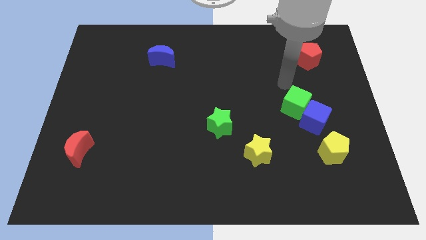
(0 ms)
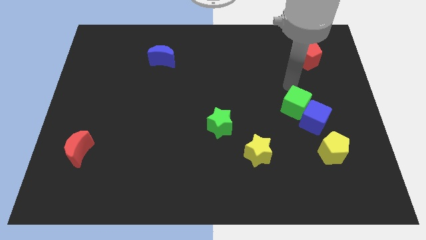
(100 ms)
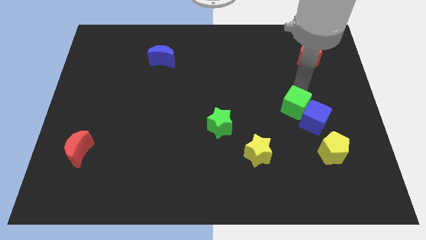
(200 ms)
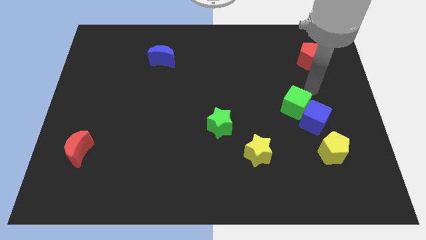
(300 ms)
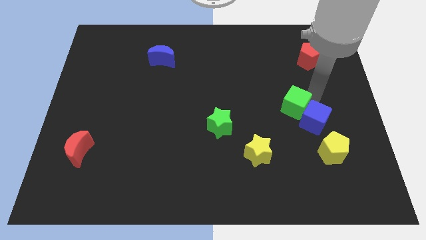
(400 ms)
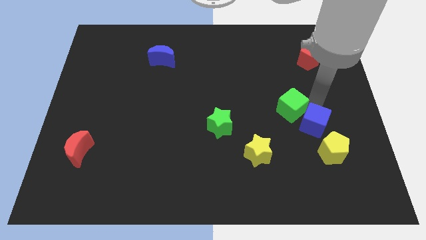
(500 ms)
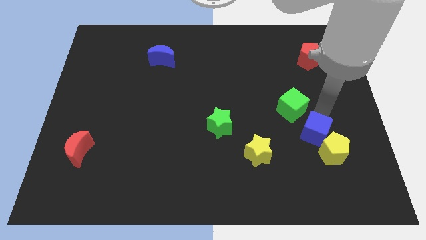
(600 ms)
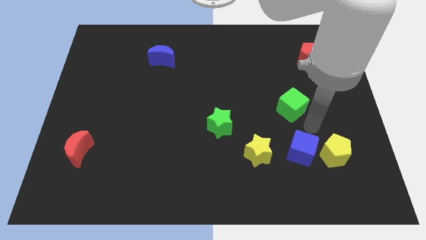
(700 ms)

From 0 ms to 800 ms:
move the green cube away from the blue cube

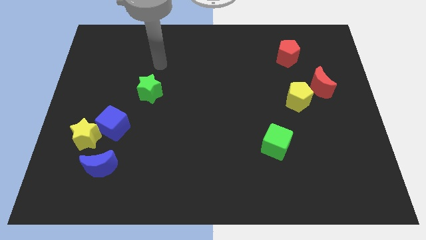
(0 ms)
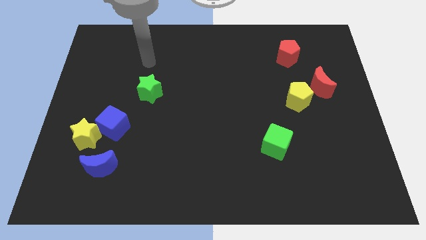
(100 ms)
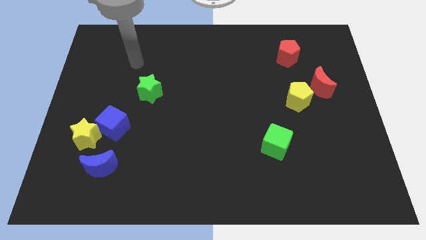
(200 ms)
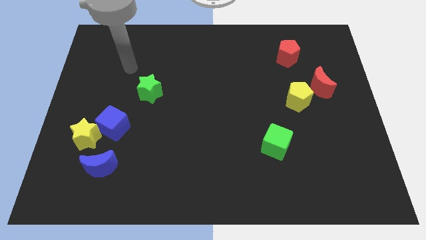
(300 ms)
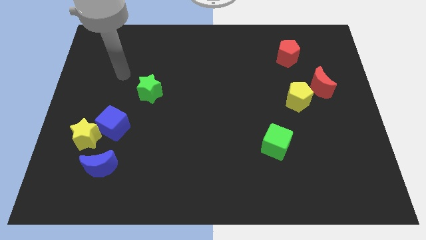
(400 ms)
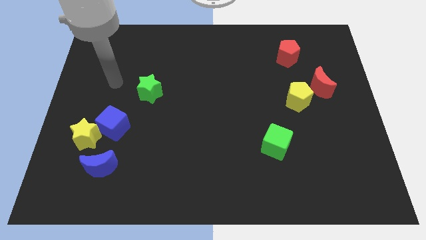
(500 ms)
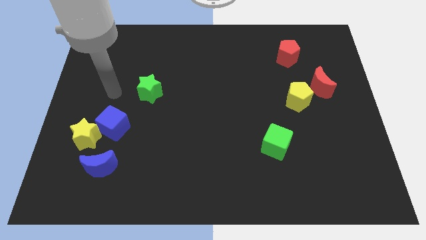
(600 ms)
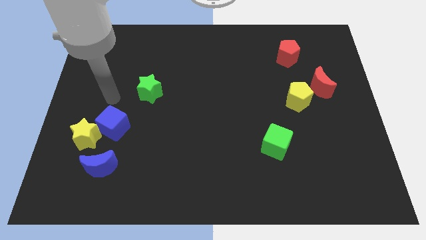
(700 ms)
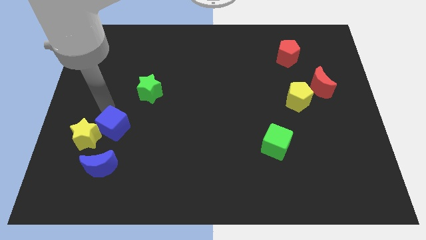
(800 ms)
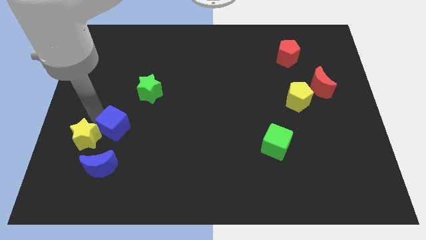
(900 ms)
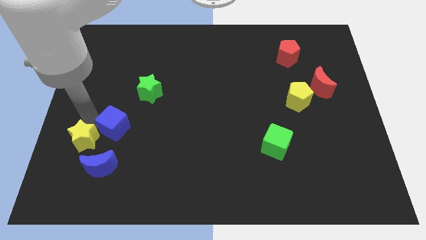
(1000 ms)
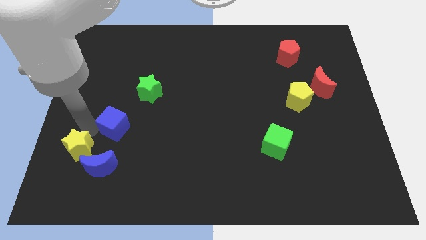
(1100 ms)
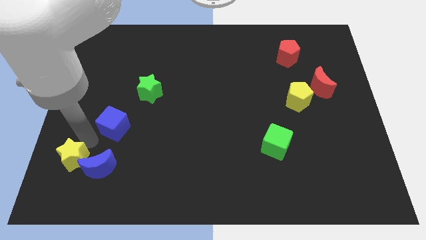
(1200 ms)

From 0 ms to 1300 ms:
pull the blue cube apart from the yellow star

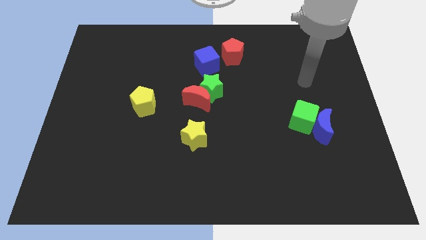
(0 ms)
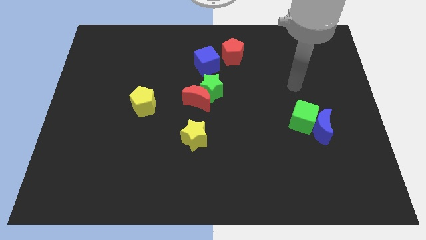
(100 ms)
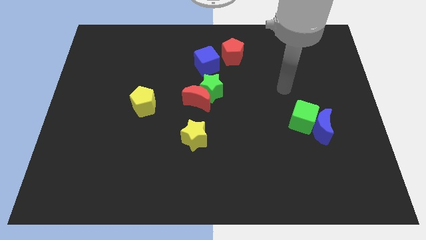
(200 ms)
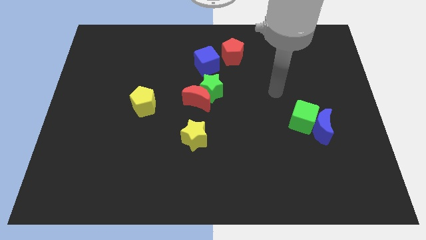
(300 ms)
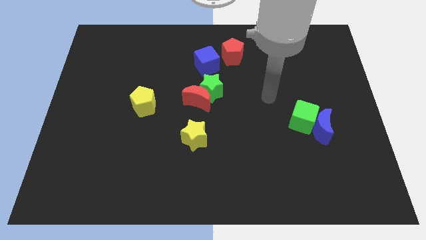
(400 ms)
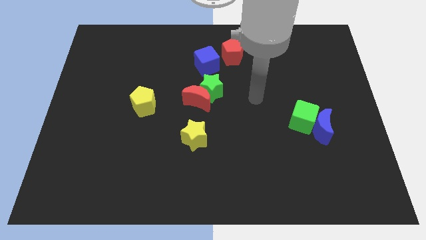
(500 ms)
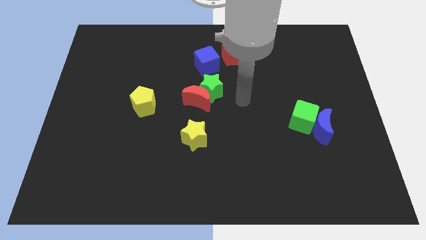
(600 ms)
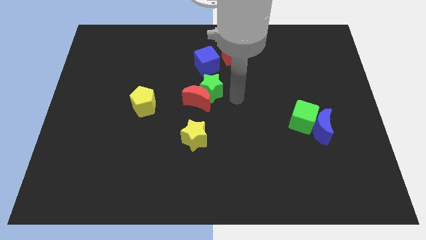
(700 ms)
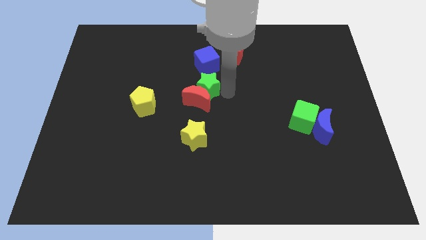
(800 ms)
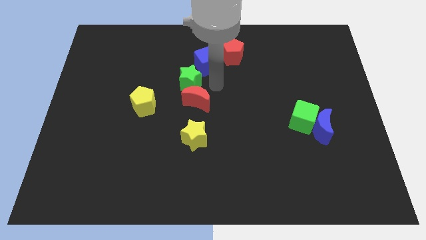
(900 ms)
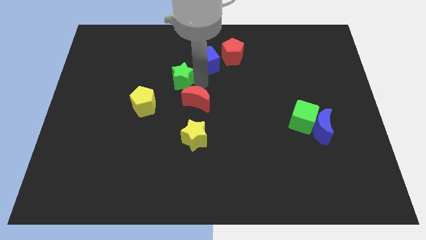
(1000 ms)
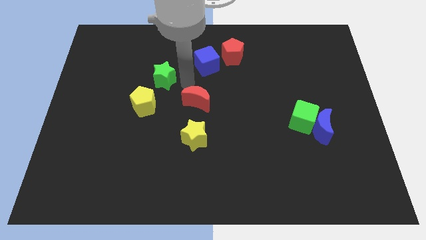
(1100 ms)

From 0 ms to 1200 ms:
pull the red moon apart from the green star

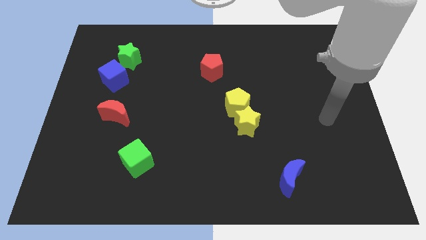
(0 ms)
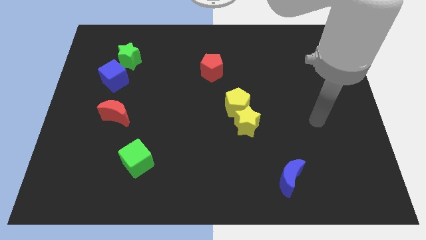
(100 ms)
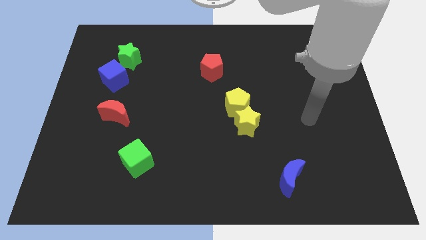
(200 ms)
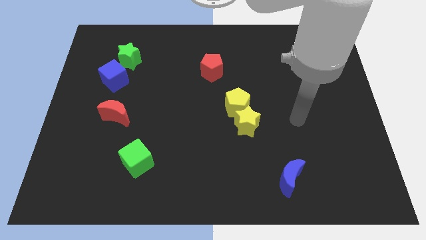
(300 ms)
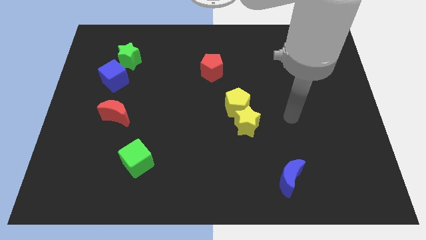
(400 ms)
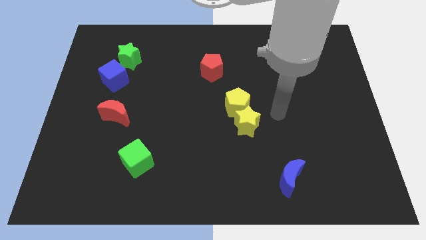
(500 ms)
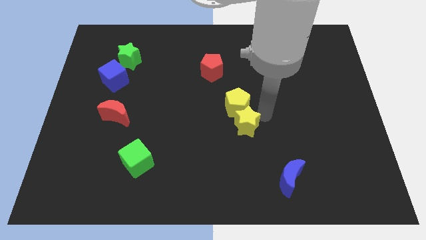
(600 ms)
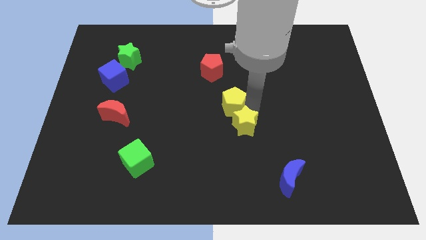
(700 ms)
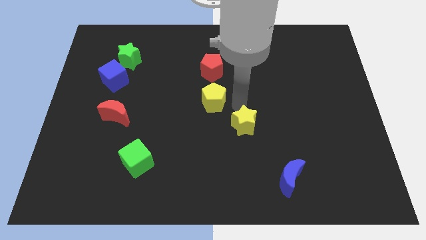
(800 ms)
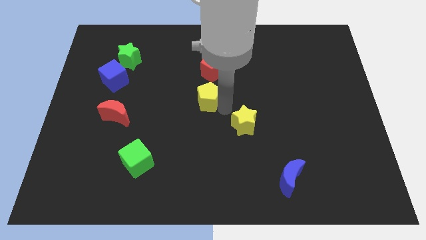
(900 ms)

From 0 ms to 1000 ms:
separate the yellow star from the yellow pentagon

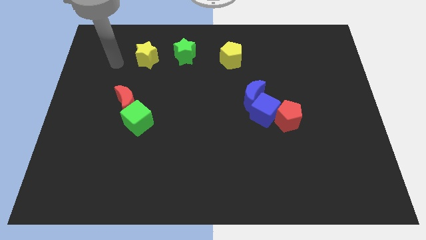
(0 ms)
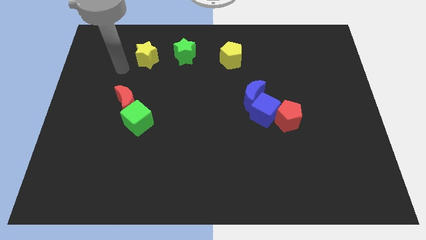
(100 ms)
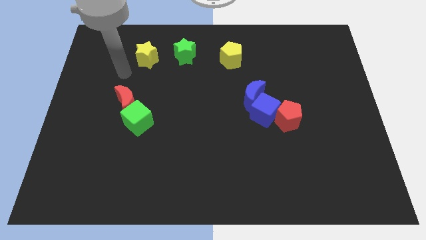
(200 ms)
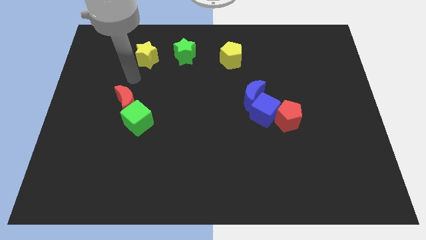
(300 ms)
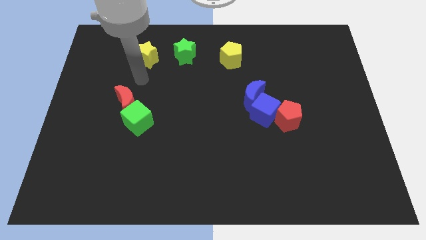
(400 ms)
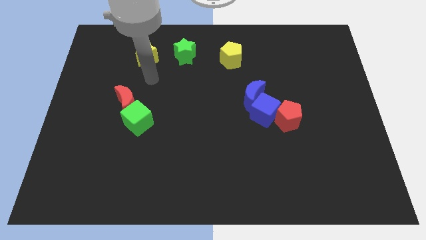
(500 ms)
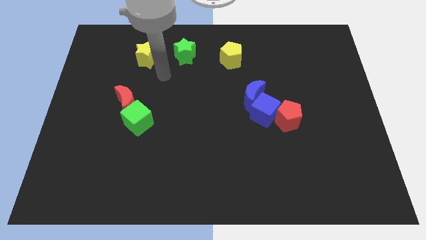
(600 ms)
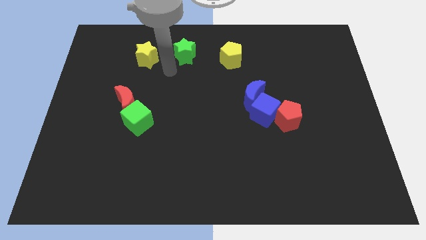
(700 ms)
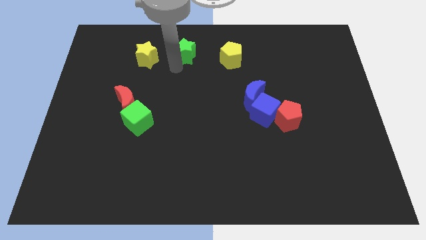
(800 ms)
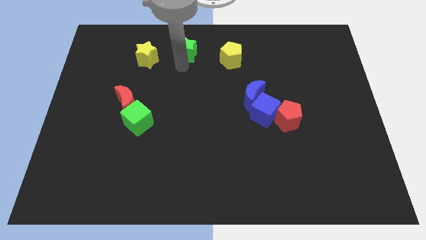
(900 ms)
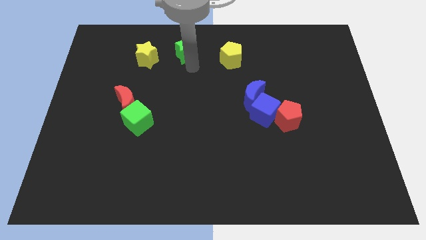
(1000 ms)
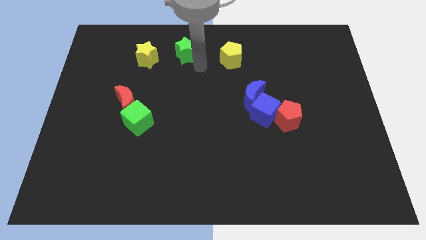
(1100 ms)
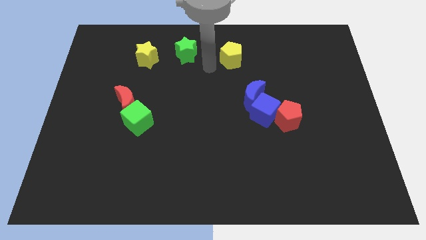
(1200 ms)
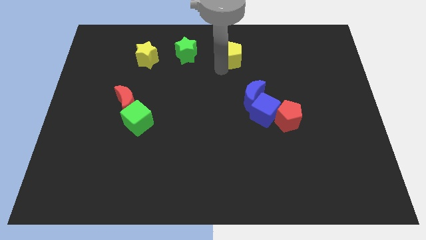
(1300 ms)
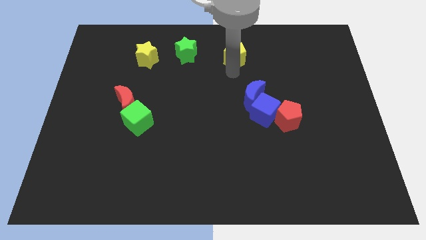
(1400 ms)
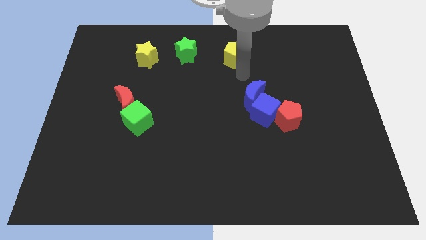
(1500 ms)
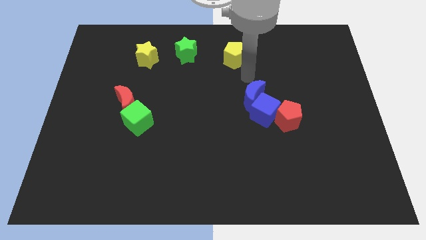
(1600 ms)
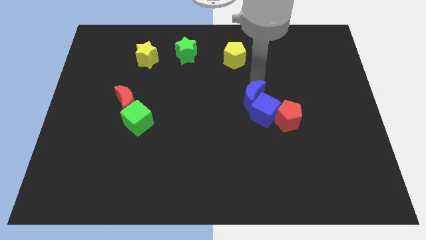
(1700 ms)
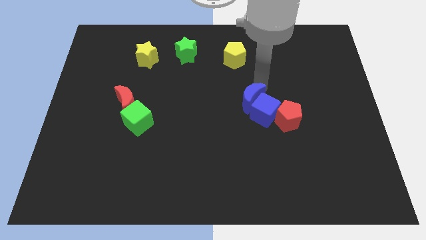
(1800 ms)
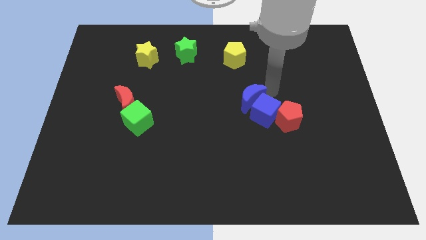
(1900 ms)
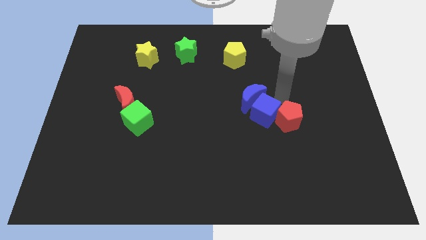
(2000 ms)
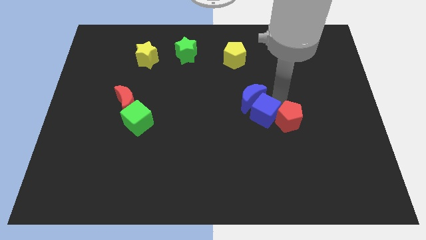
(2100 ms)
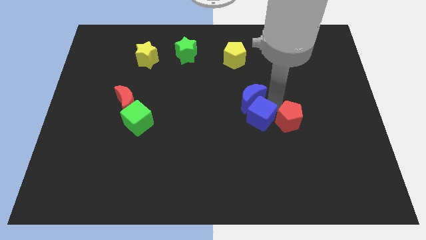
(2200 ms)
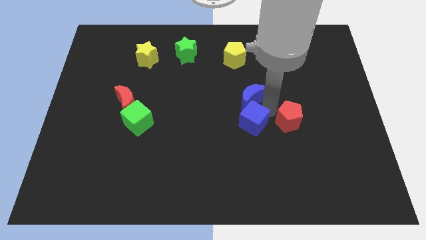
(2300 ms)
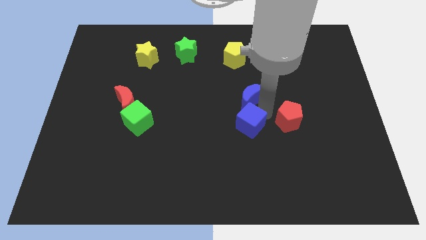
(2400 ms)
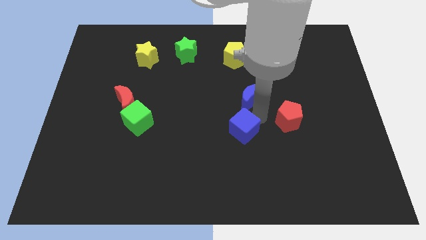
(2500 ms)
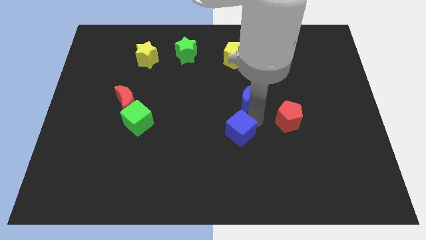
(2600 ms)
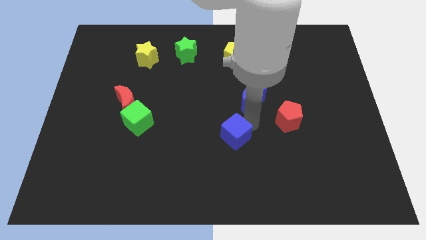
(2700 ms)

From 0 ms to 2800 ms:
move the blue cube away from the blue moon and red pentagon

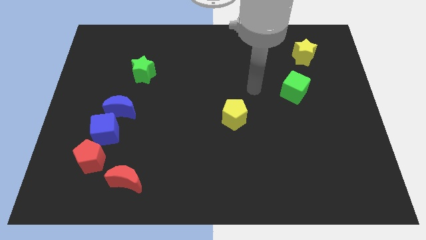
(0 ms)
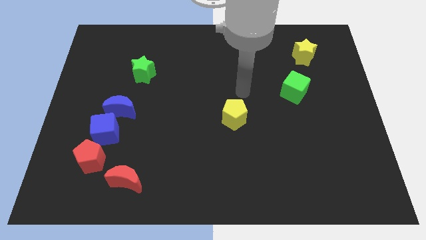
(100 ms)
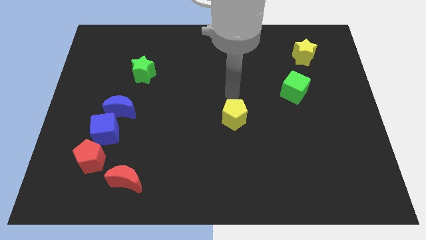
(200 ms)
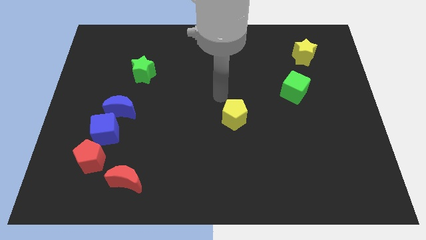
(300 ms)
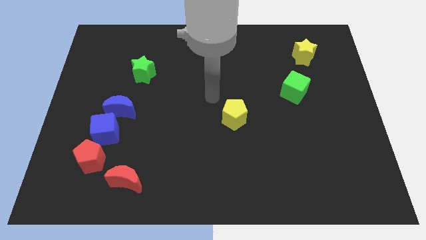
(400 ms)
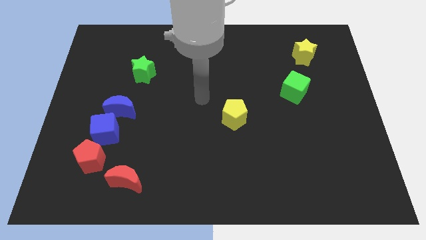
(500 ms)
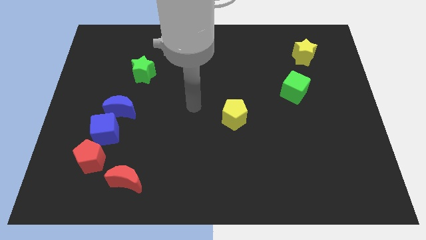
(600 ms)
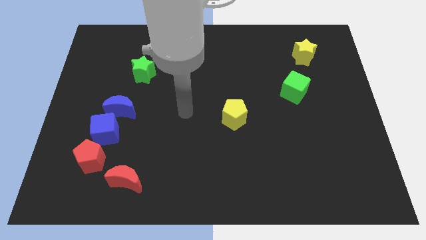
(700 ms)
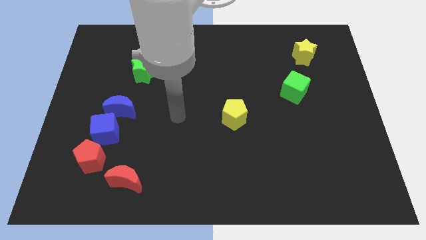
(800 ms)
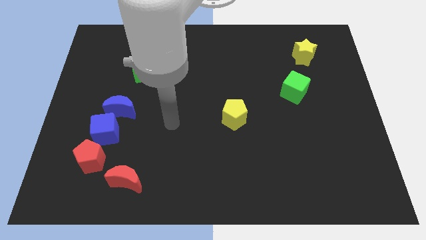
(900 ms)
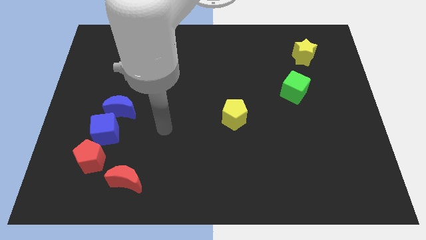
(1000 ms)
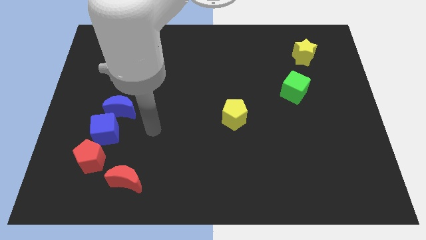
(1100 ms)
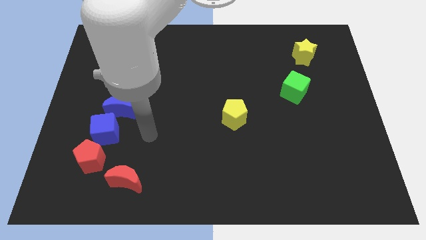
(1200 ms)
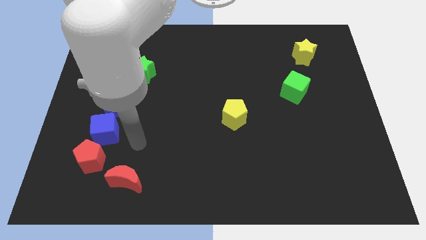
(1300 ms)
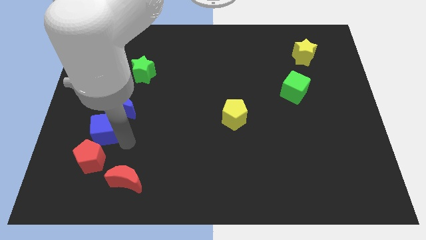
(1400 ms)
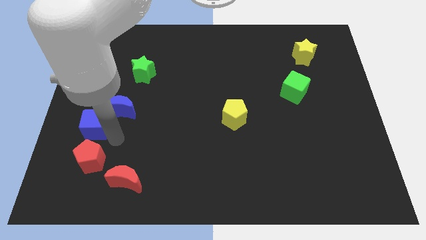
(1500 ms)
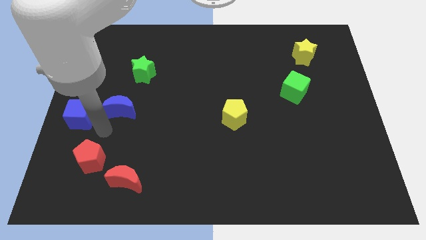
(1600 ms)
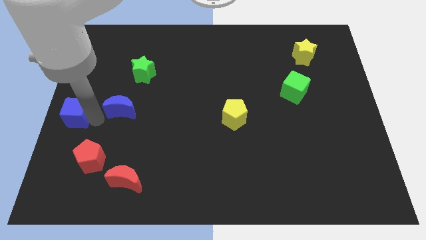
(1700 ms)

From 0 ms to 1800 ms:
move the blue moon away from the blue cube

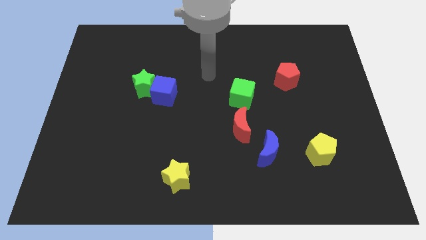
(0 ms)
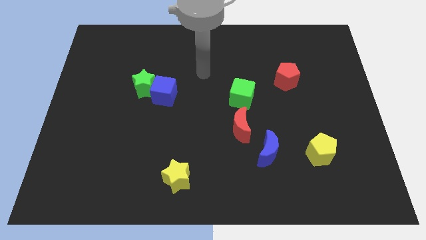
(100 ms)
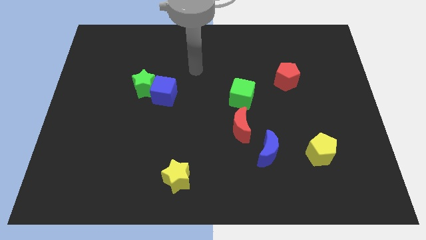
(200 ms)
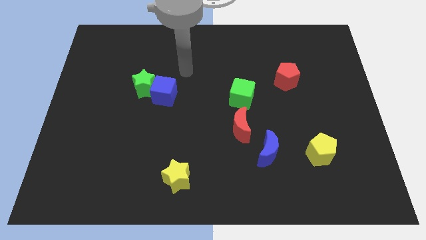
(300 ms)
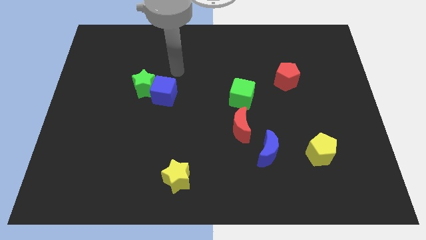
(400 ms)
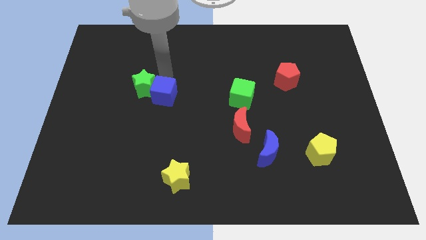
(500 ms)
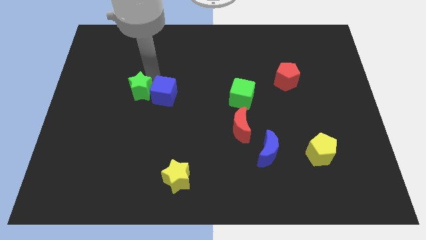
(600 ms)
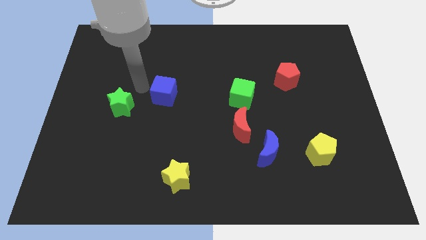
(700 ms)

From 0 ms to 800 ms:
pull the blue cube apart from the green star
